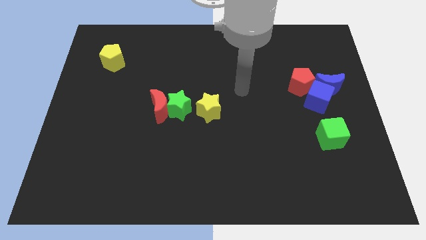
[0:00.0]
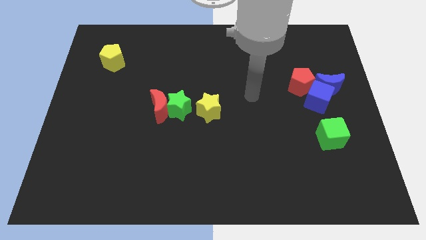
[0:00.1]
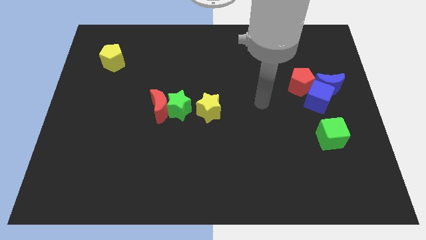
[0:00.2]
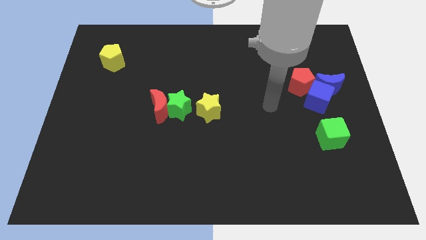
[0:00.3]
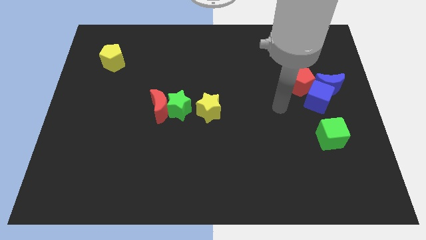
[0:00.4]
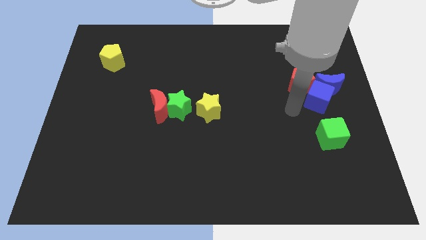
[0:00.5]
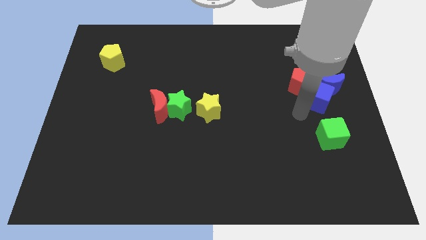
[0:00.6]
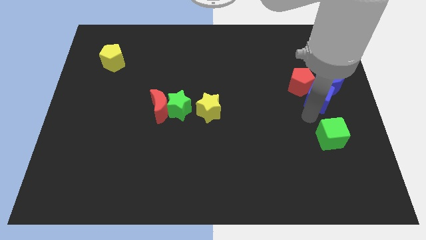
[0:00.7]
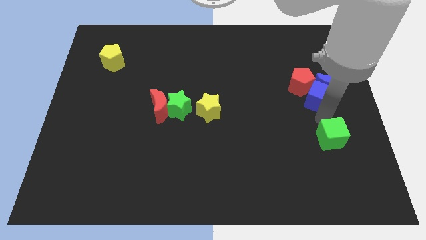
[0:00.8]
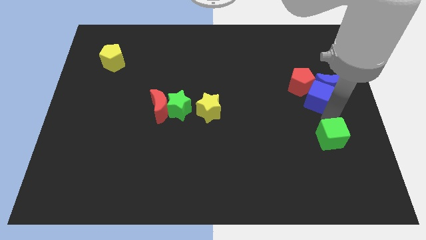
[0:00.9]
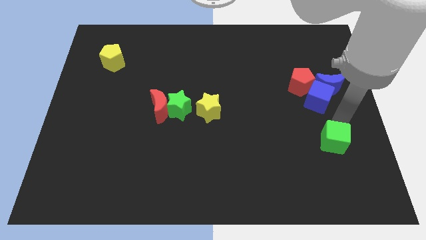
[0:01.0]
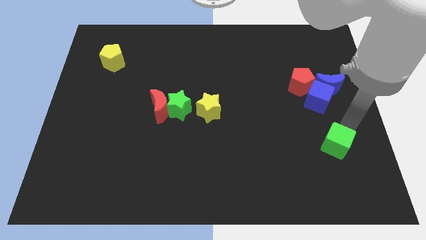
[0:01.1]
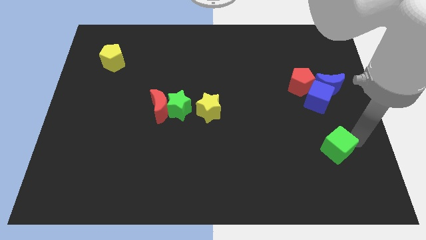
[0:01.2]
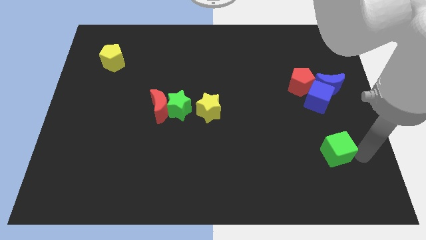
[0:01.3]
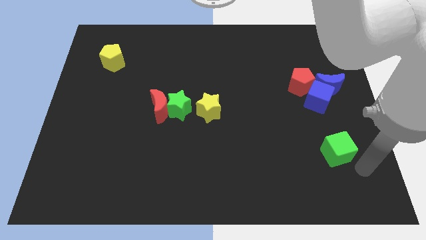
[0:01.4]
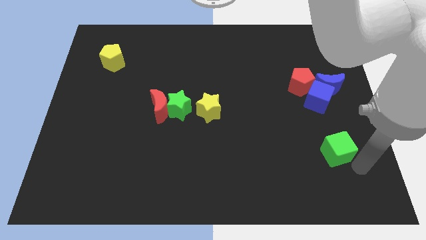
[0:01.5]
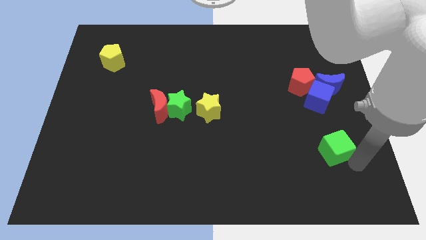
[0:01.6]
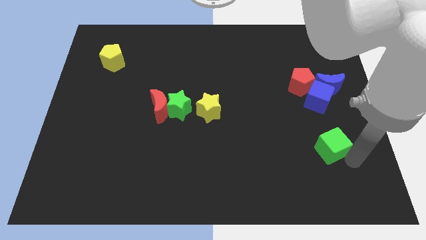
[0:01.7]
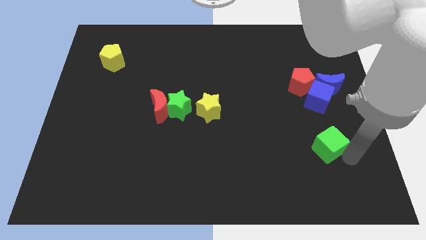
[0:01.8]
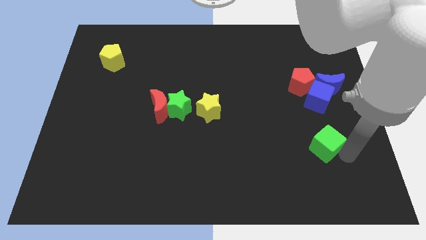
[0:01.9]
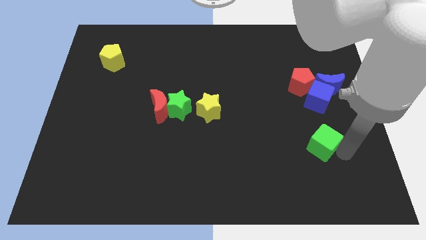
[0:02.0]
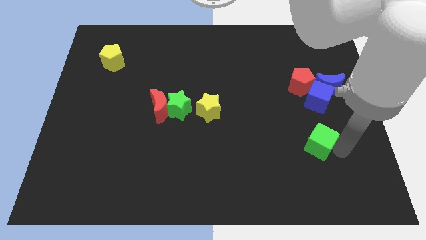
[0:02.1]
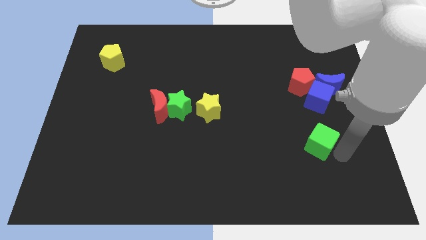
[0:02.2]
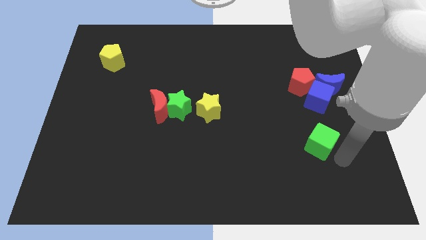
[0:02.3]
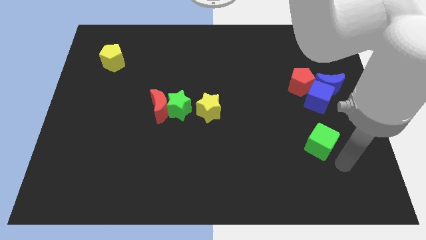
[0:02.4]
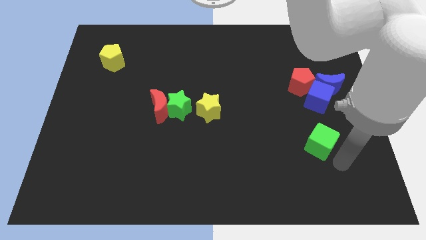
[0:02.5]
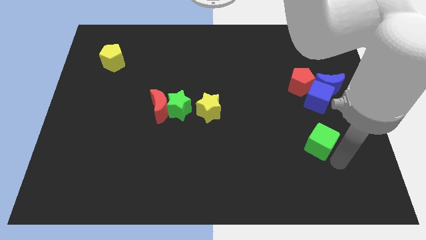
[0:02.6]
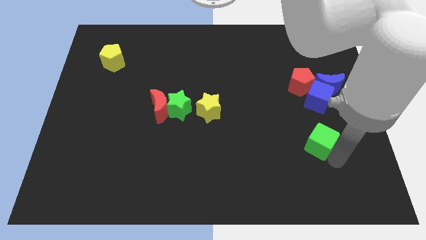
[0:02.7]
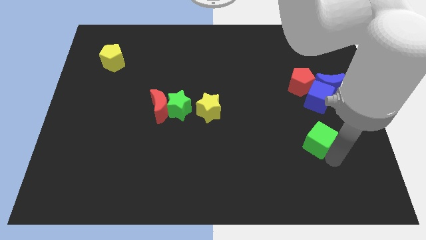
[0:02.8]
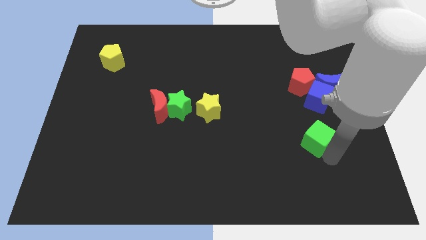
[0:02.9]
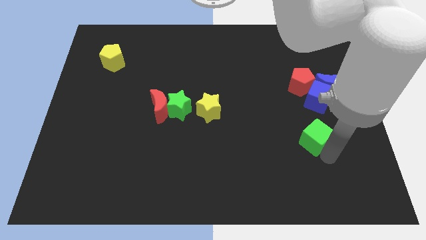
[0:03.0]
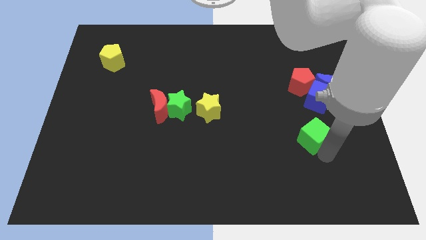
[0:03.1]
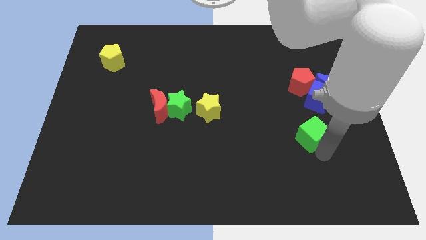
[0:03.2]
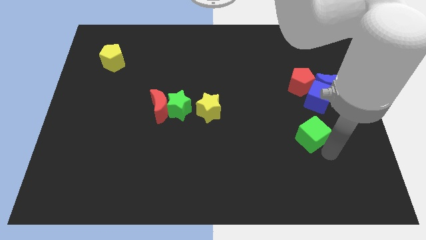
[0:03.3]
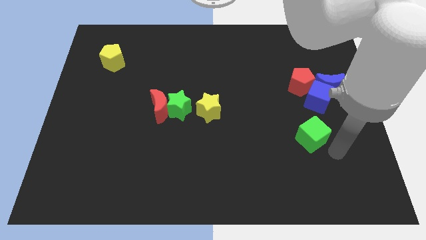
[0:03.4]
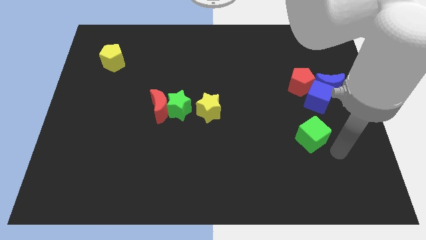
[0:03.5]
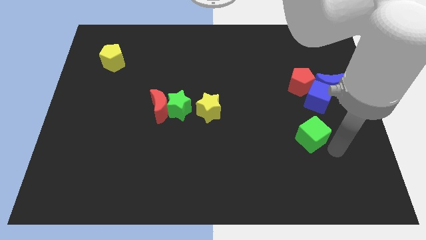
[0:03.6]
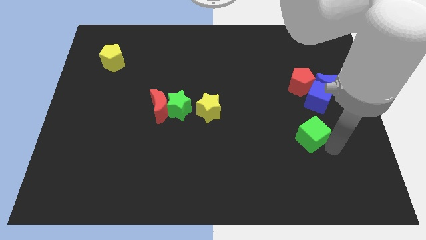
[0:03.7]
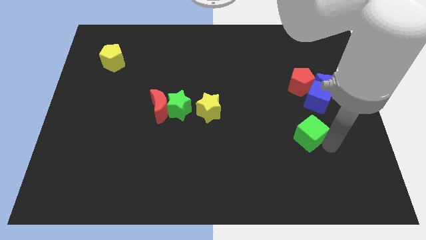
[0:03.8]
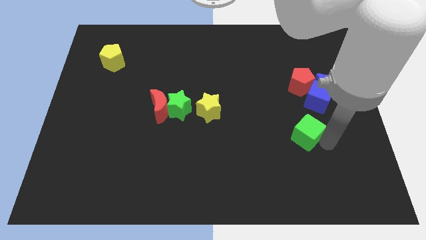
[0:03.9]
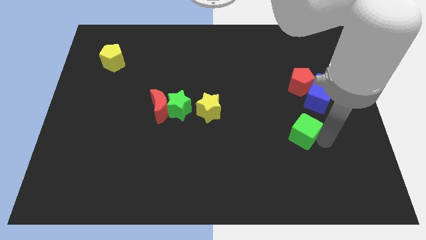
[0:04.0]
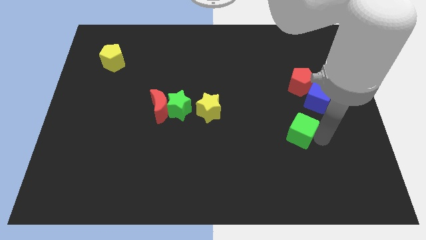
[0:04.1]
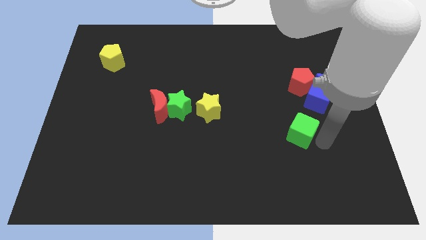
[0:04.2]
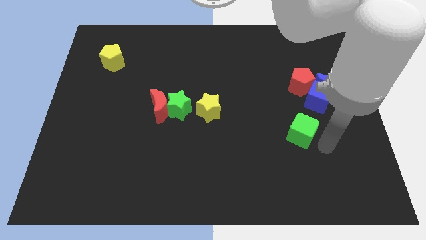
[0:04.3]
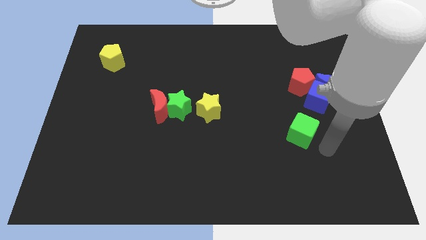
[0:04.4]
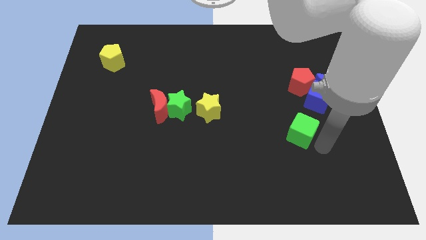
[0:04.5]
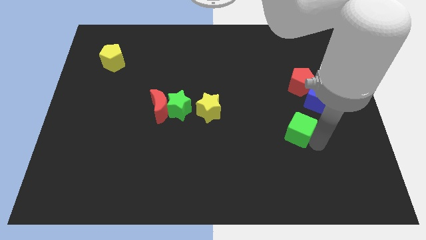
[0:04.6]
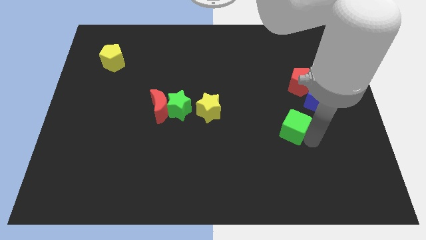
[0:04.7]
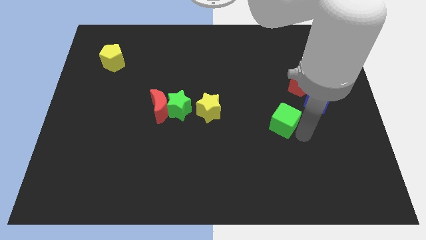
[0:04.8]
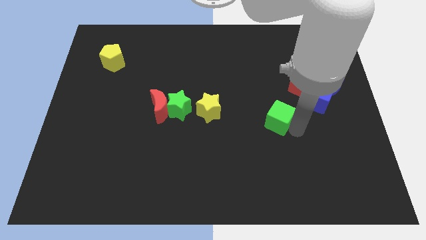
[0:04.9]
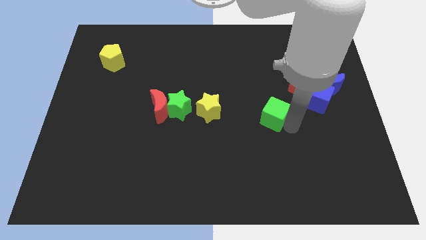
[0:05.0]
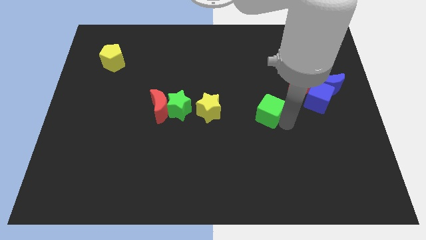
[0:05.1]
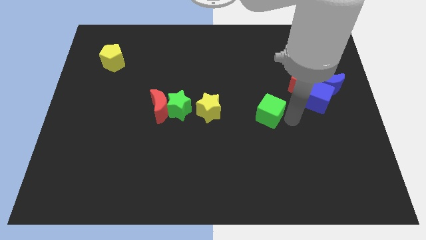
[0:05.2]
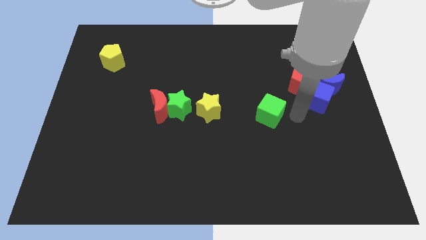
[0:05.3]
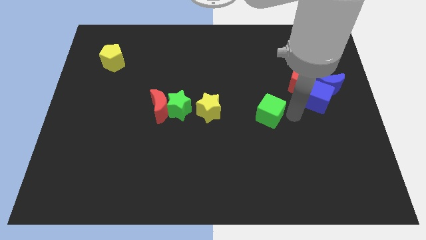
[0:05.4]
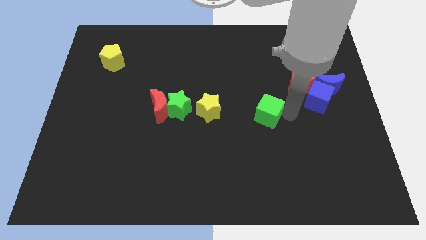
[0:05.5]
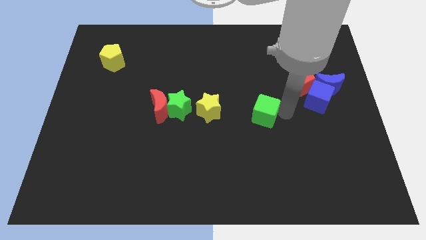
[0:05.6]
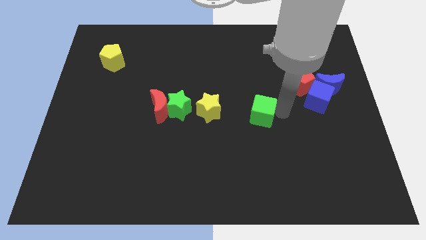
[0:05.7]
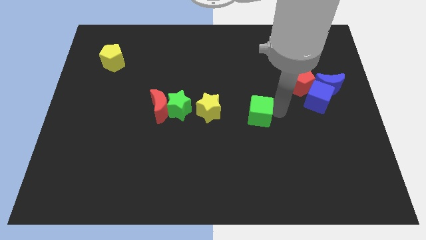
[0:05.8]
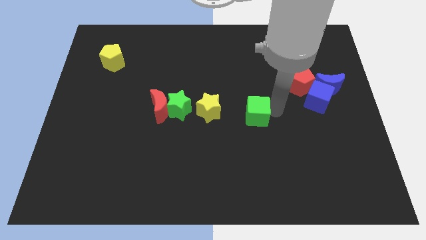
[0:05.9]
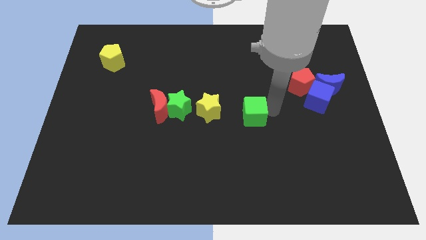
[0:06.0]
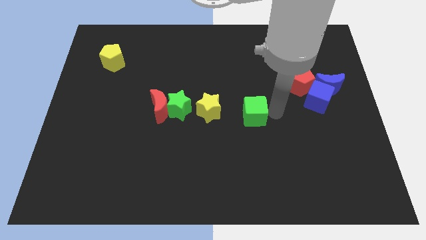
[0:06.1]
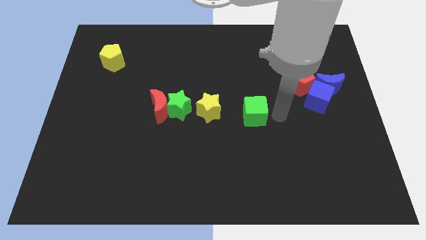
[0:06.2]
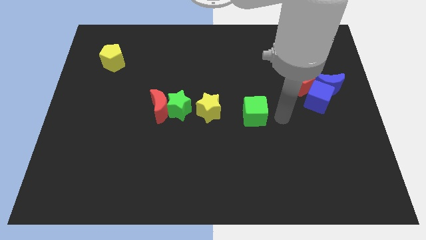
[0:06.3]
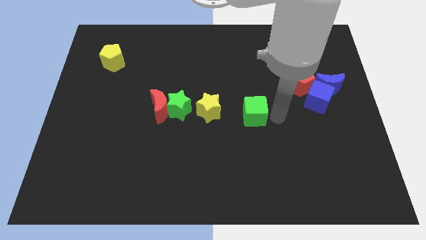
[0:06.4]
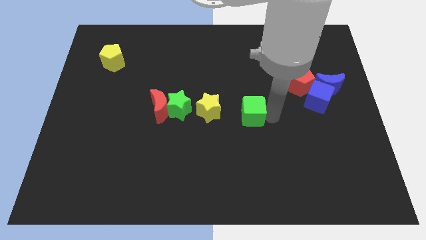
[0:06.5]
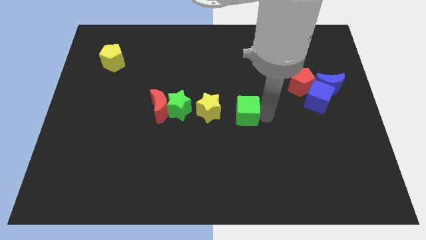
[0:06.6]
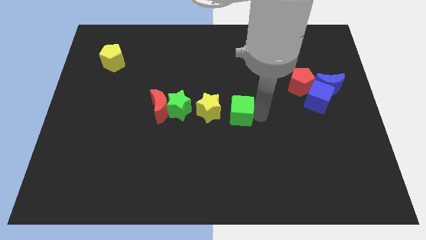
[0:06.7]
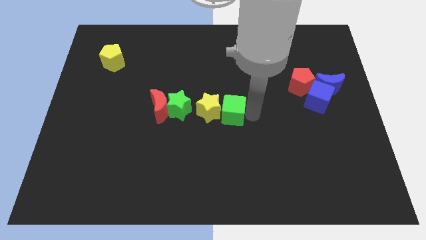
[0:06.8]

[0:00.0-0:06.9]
put the green cube next to the yellow star

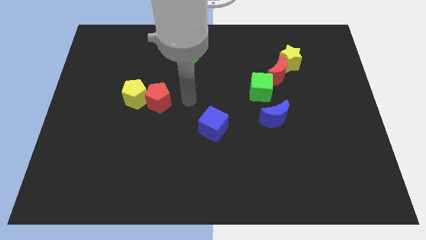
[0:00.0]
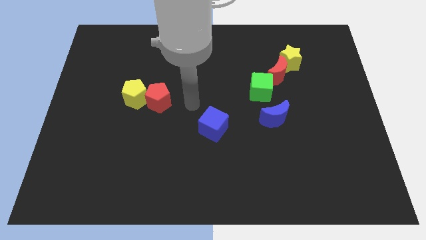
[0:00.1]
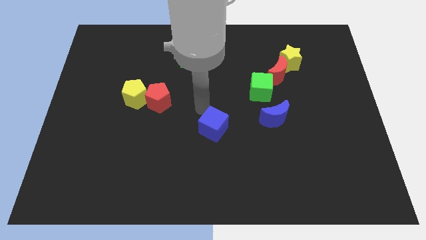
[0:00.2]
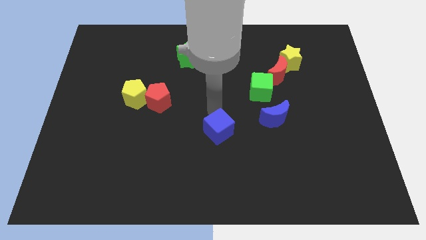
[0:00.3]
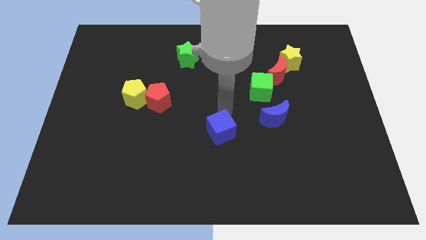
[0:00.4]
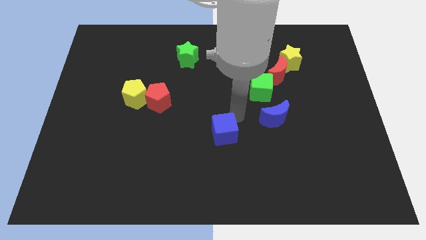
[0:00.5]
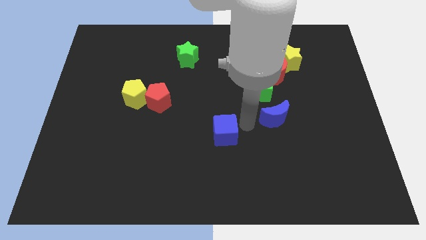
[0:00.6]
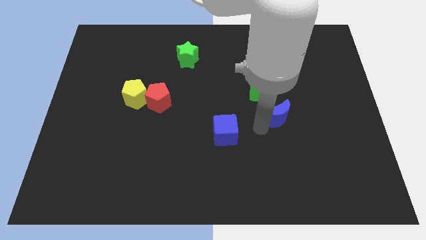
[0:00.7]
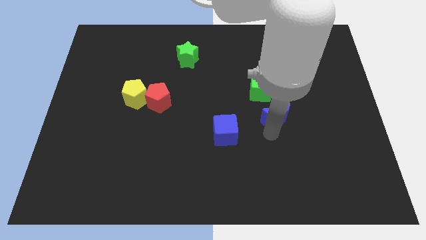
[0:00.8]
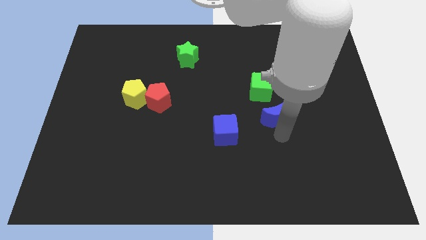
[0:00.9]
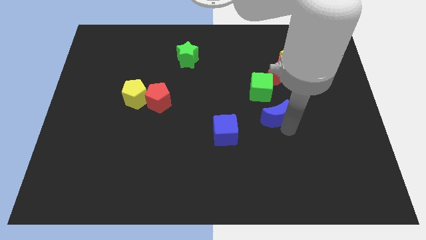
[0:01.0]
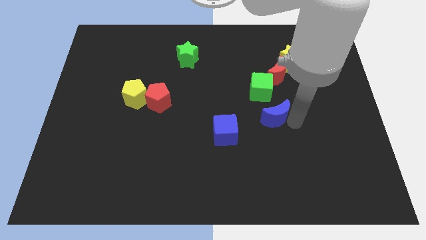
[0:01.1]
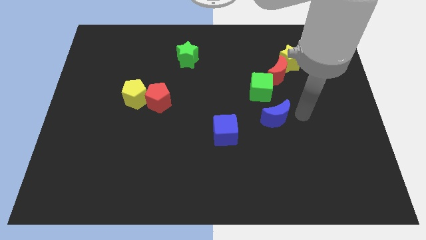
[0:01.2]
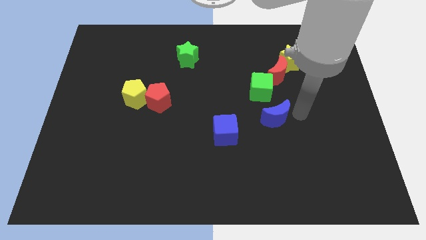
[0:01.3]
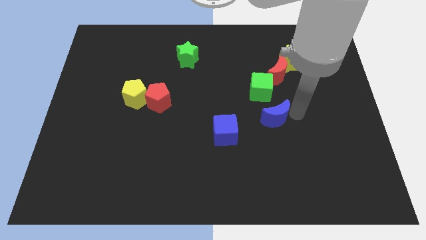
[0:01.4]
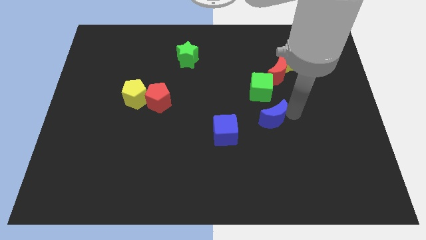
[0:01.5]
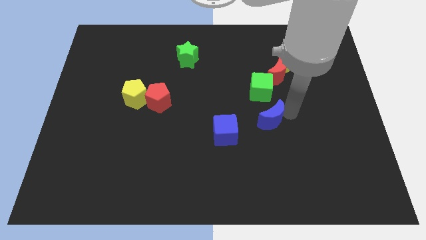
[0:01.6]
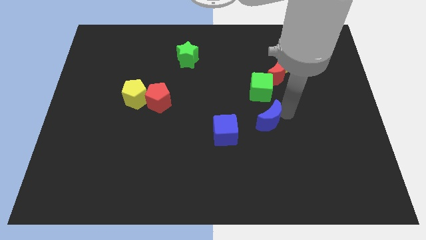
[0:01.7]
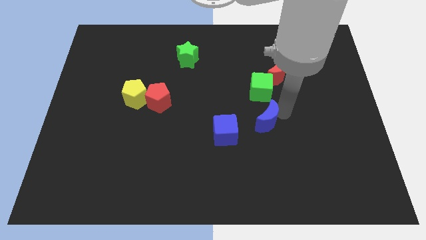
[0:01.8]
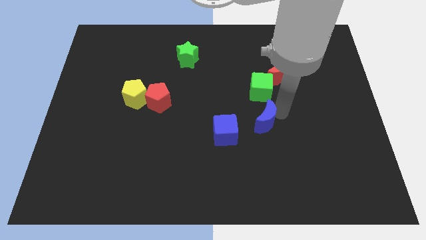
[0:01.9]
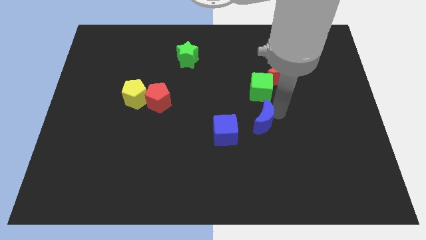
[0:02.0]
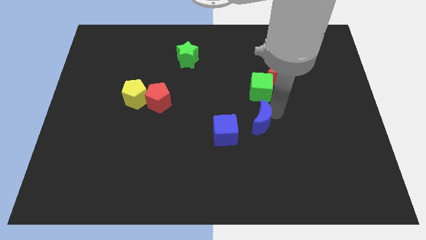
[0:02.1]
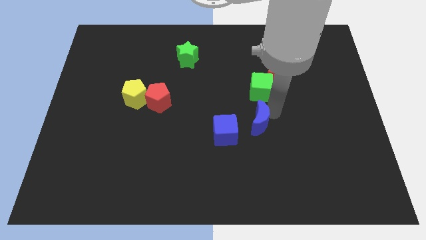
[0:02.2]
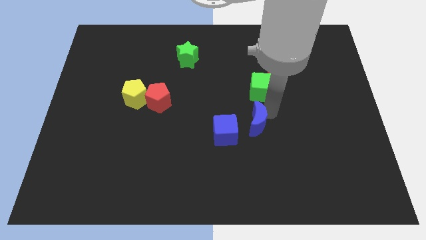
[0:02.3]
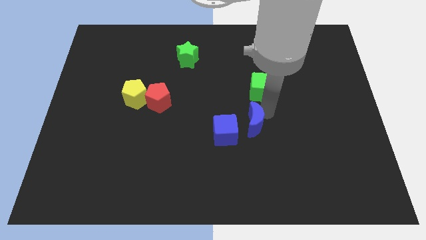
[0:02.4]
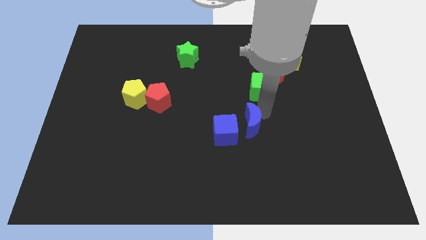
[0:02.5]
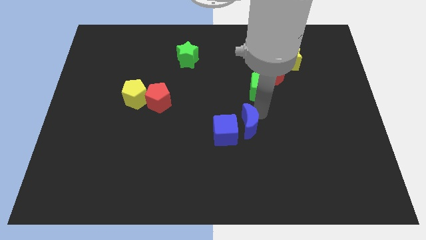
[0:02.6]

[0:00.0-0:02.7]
put the blue moon towards the blue cube
